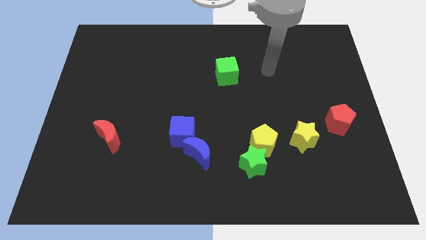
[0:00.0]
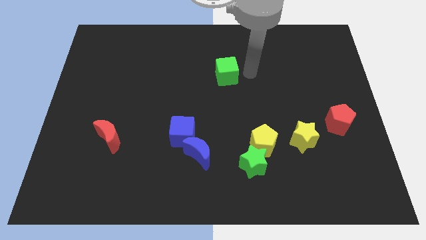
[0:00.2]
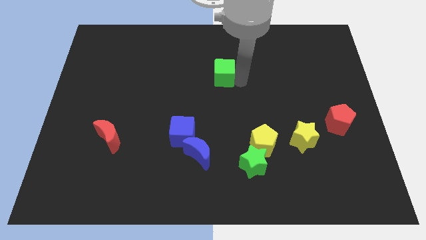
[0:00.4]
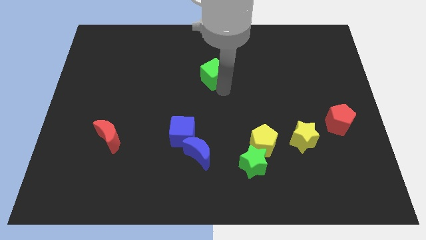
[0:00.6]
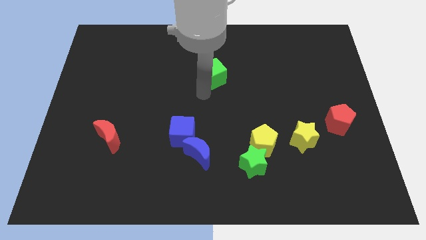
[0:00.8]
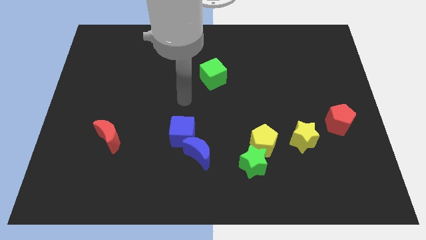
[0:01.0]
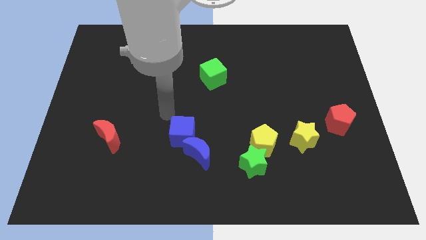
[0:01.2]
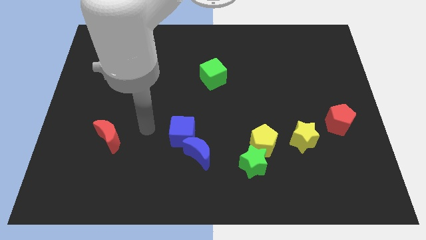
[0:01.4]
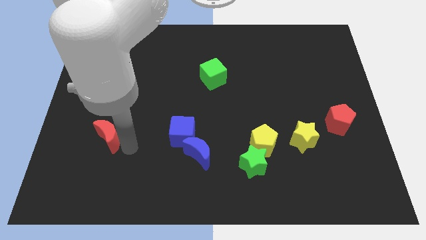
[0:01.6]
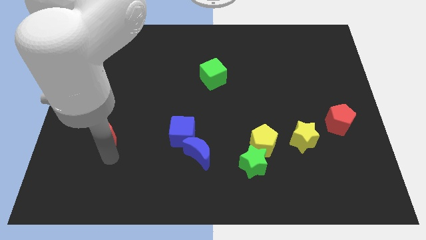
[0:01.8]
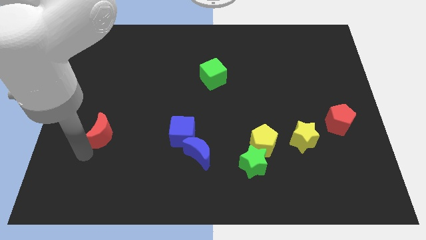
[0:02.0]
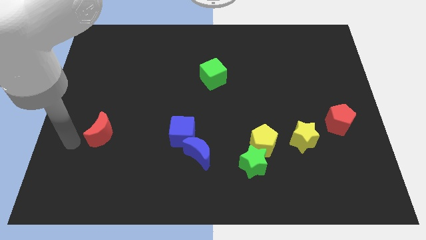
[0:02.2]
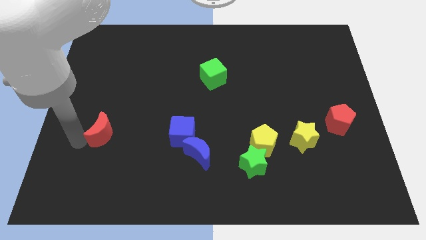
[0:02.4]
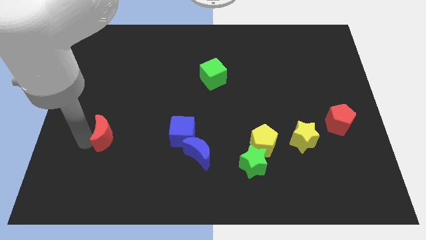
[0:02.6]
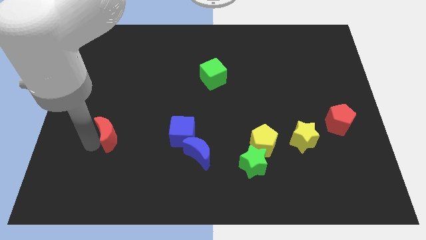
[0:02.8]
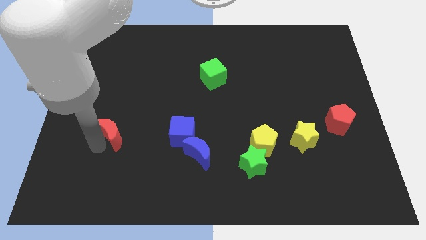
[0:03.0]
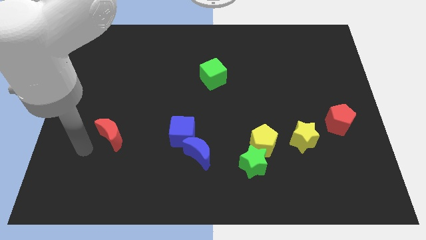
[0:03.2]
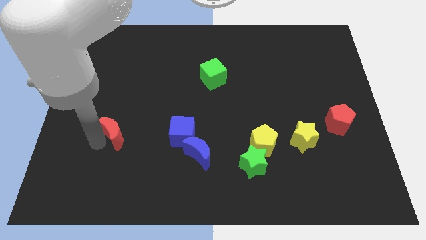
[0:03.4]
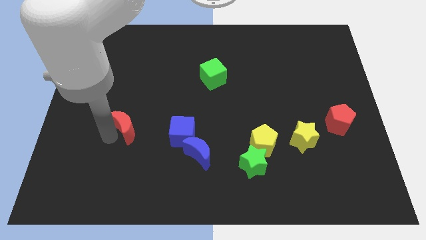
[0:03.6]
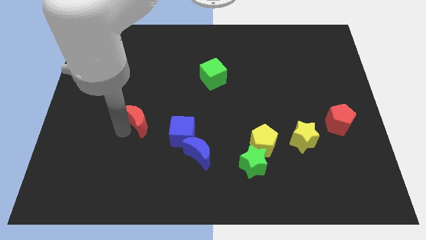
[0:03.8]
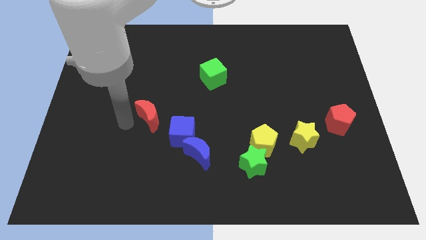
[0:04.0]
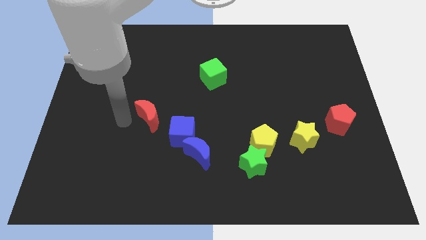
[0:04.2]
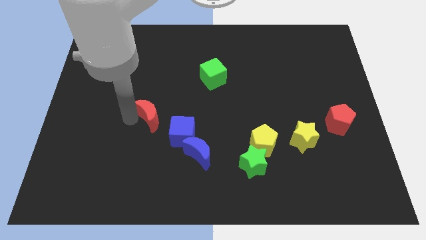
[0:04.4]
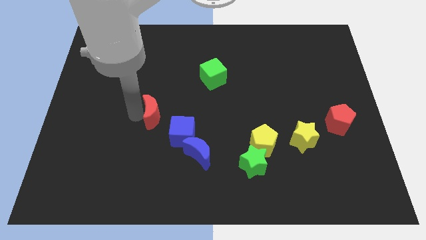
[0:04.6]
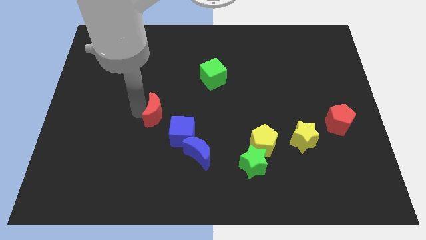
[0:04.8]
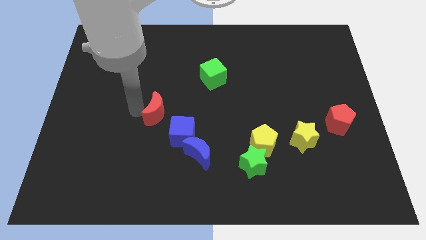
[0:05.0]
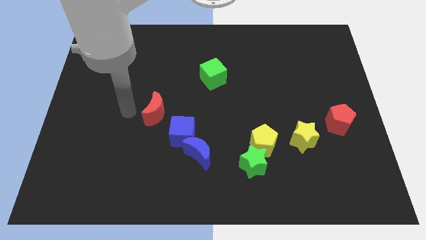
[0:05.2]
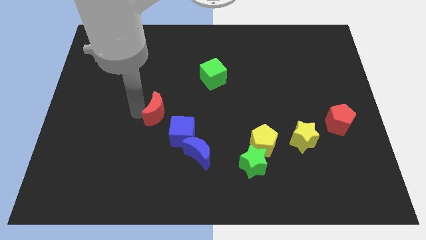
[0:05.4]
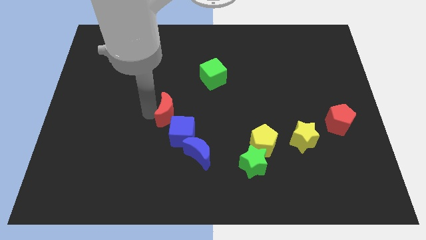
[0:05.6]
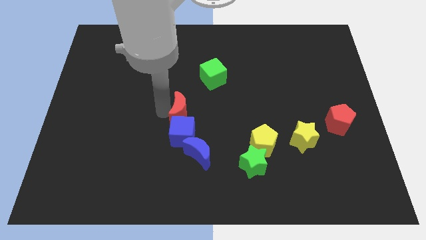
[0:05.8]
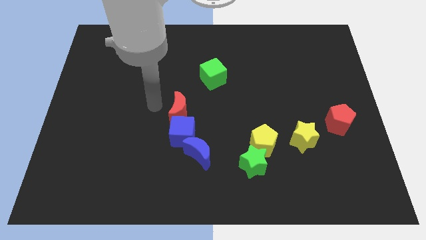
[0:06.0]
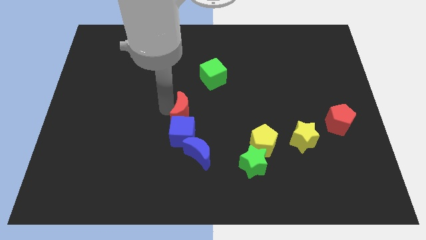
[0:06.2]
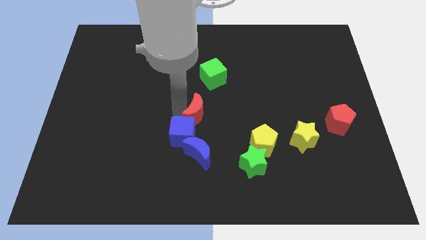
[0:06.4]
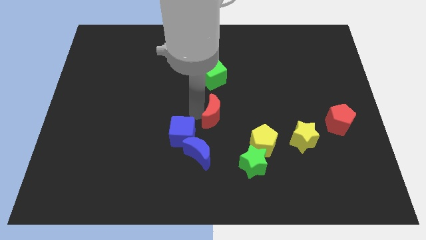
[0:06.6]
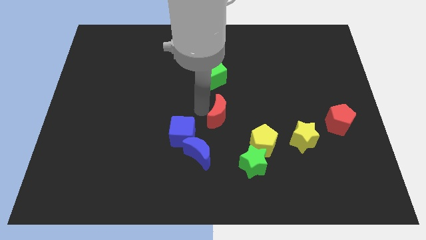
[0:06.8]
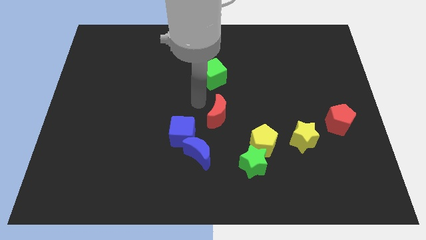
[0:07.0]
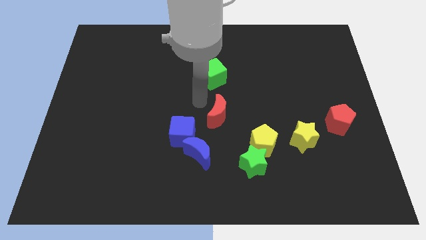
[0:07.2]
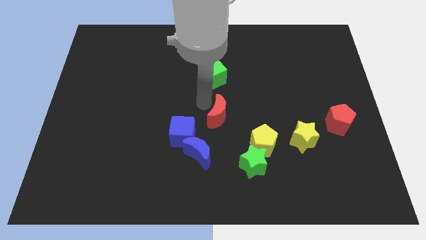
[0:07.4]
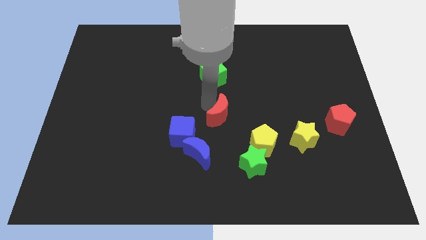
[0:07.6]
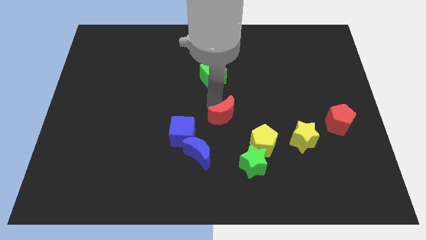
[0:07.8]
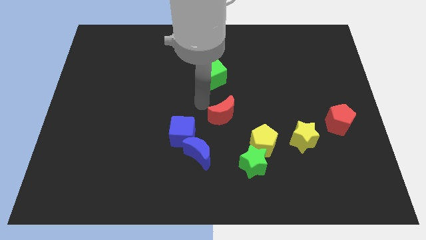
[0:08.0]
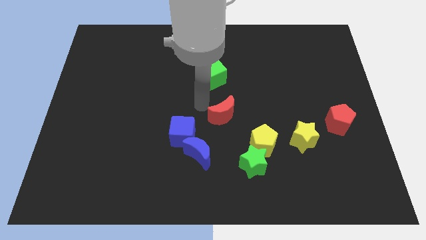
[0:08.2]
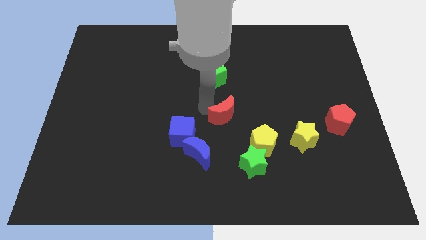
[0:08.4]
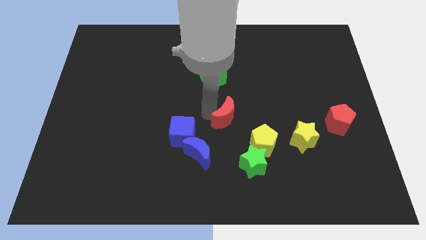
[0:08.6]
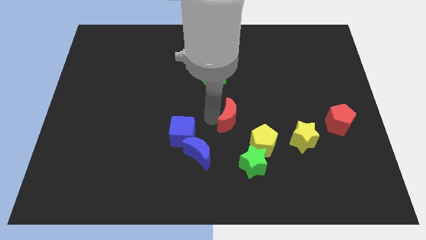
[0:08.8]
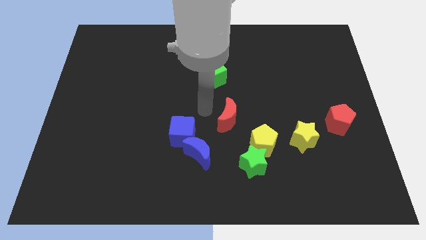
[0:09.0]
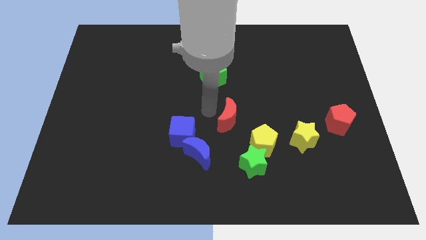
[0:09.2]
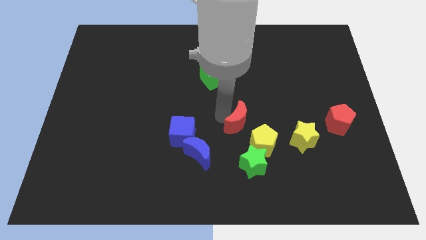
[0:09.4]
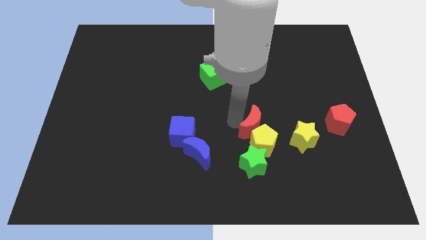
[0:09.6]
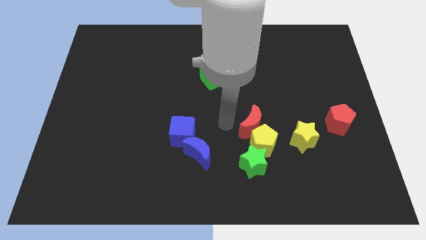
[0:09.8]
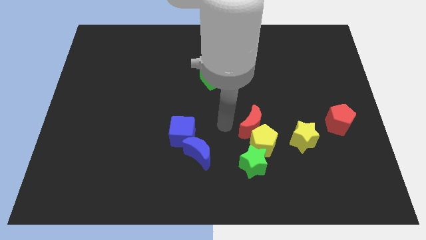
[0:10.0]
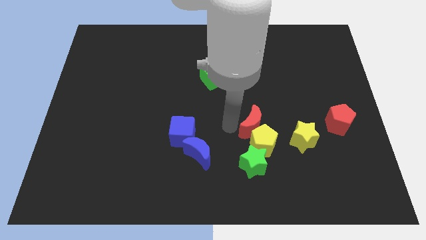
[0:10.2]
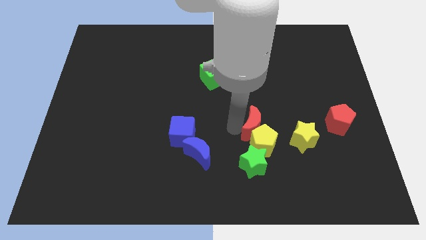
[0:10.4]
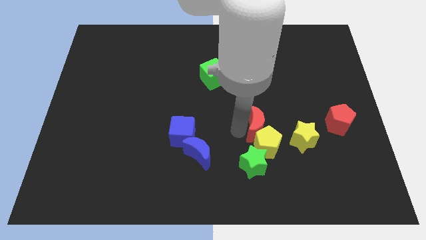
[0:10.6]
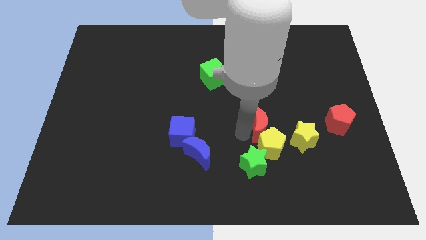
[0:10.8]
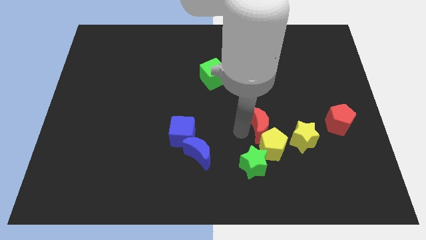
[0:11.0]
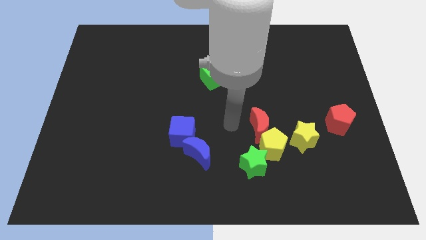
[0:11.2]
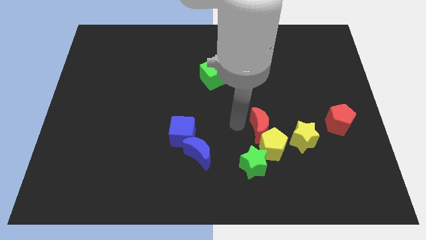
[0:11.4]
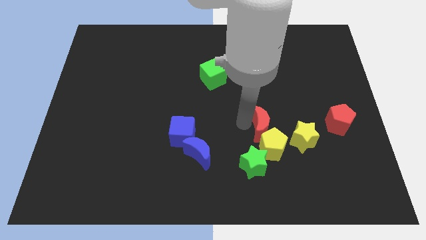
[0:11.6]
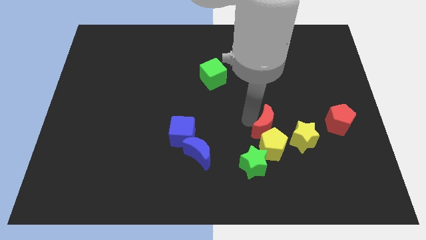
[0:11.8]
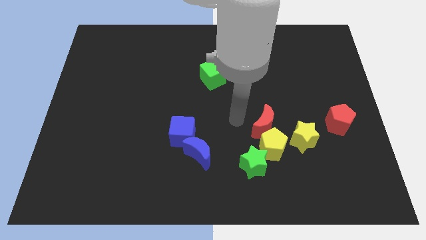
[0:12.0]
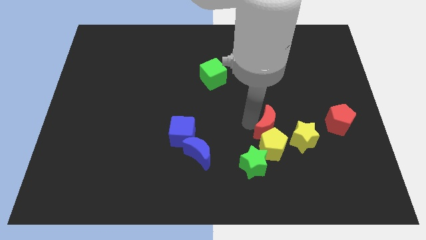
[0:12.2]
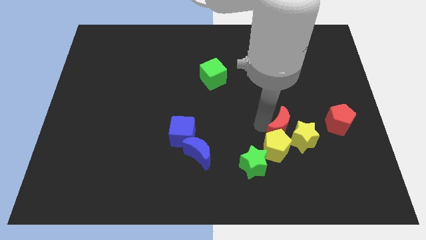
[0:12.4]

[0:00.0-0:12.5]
put the red moon close to the yellow star

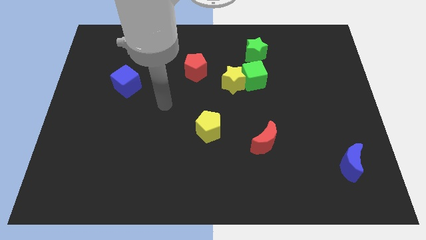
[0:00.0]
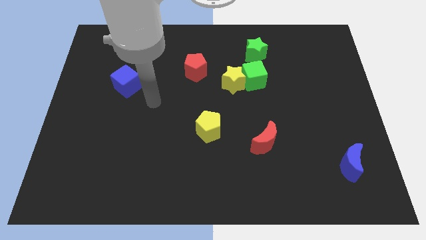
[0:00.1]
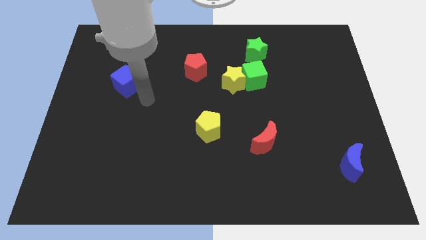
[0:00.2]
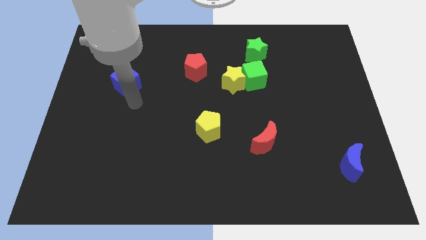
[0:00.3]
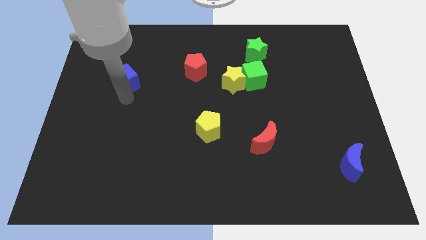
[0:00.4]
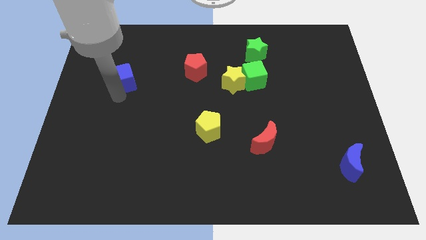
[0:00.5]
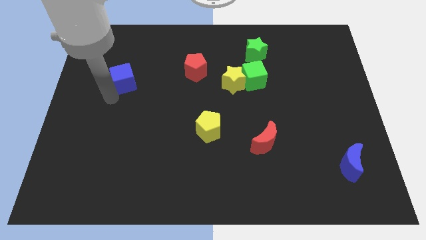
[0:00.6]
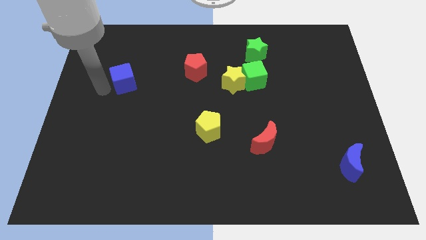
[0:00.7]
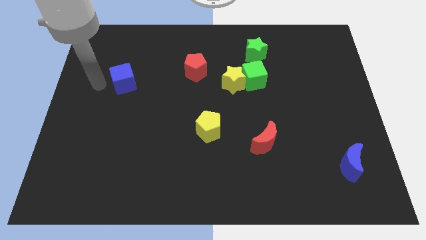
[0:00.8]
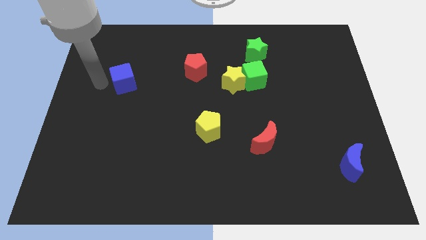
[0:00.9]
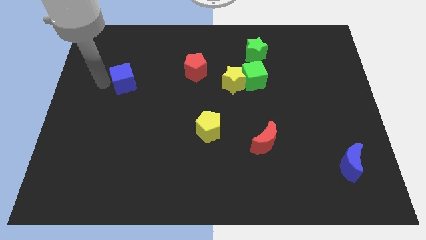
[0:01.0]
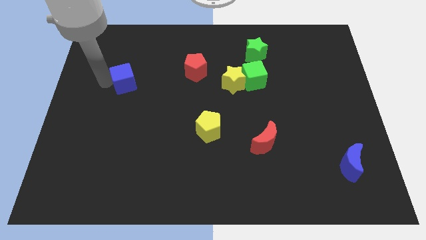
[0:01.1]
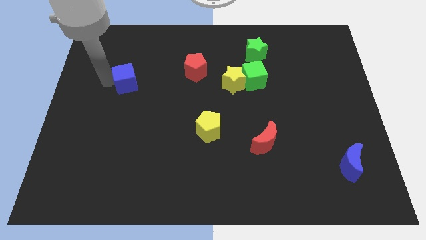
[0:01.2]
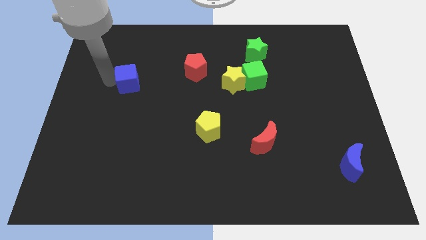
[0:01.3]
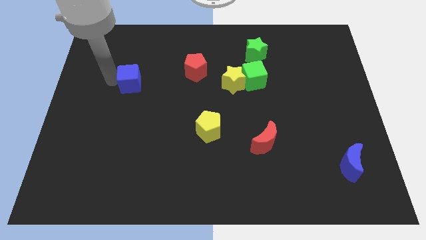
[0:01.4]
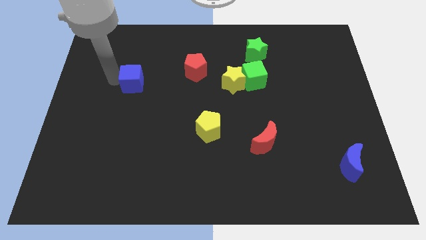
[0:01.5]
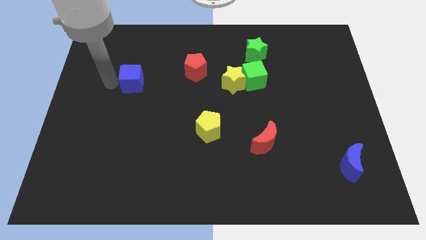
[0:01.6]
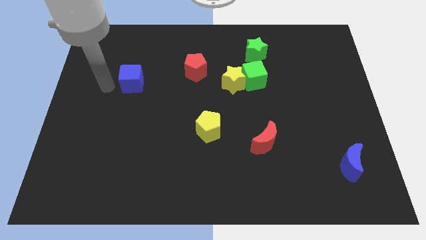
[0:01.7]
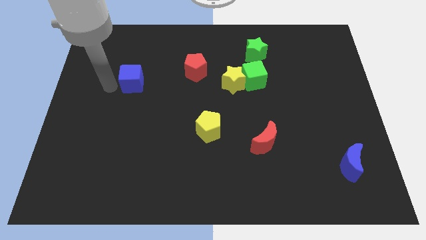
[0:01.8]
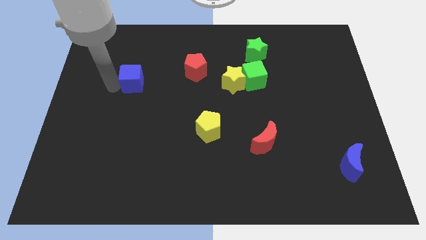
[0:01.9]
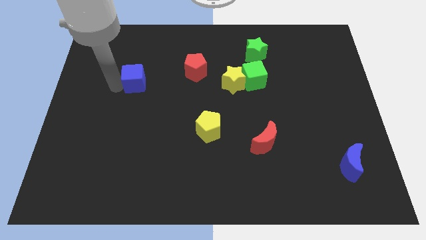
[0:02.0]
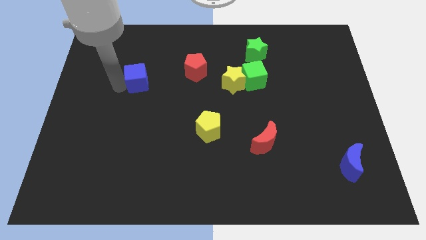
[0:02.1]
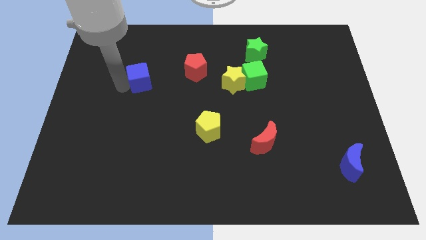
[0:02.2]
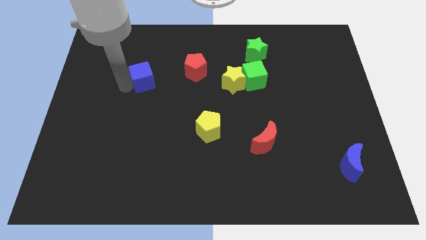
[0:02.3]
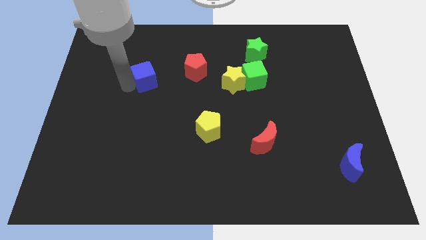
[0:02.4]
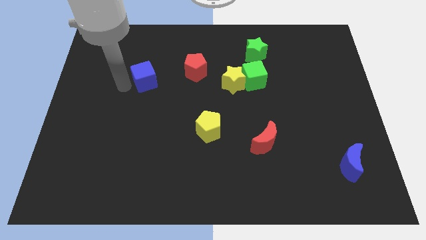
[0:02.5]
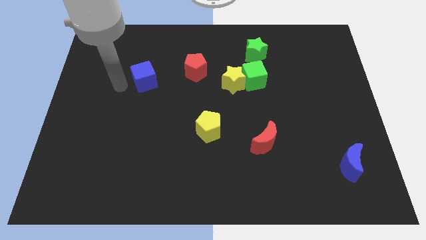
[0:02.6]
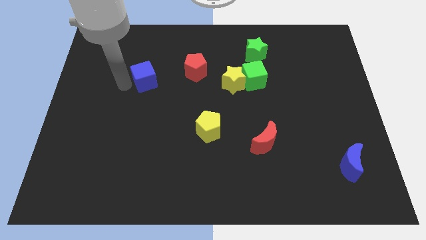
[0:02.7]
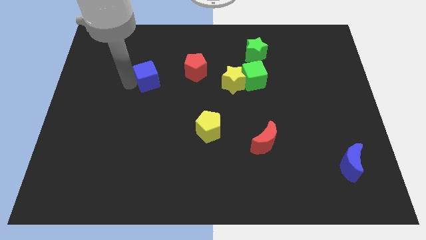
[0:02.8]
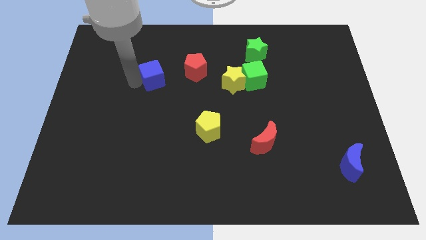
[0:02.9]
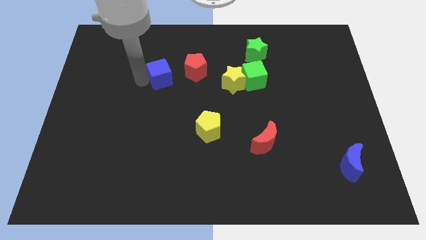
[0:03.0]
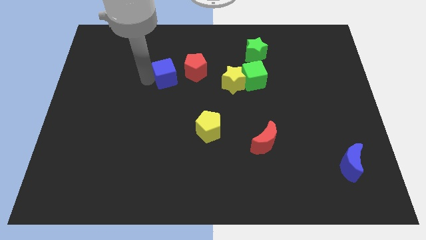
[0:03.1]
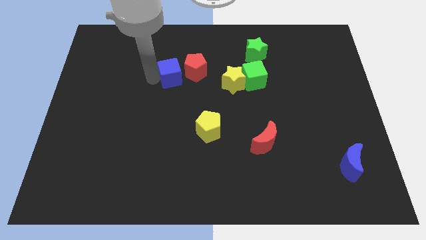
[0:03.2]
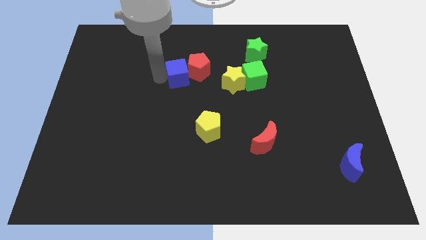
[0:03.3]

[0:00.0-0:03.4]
put the blue cube towards the red pentagon
